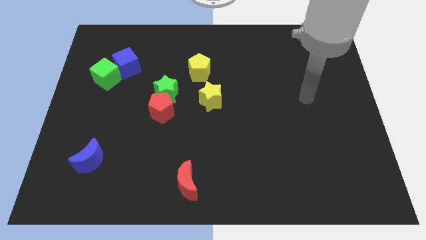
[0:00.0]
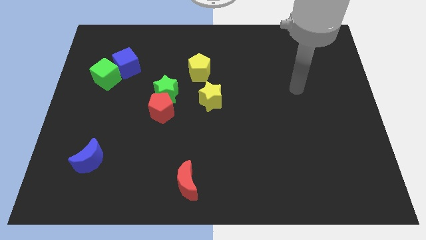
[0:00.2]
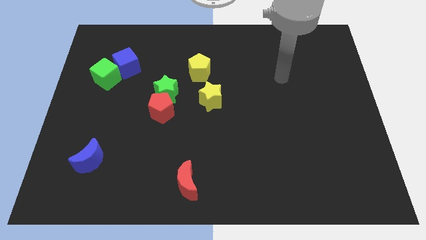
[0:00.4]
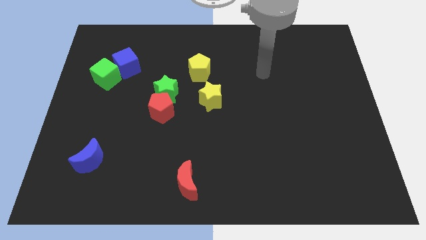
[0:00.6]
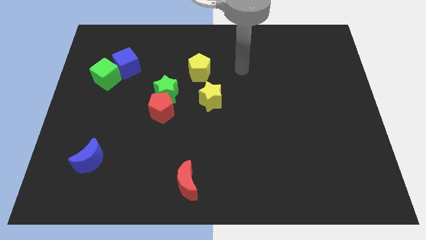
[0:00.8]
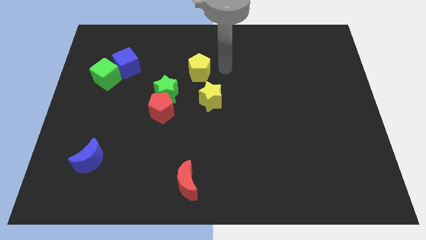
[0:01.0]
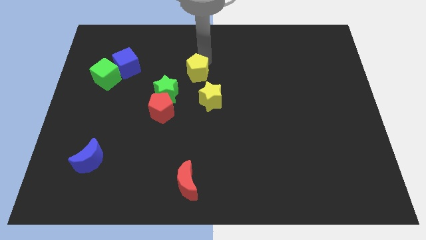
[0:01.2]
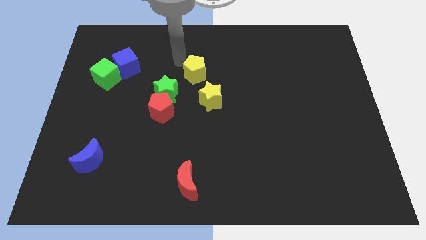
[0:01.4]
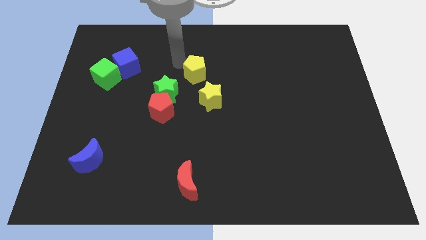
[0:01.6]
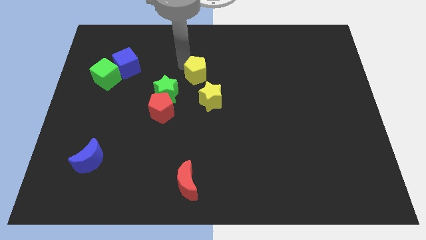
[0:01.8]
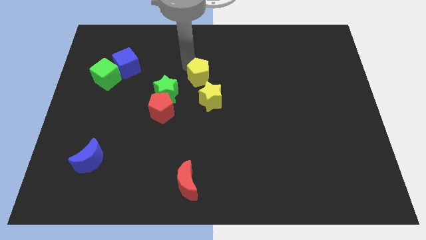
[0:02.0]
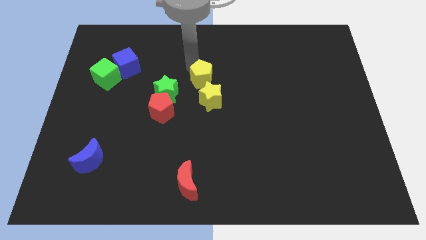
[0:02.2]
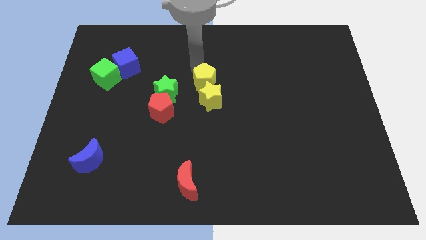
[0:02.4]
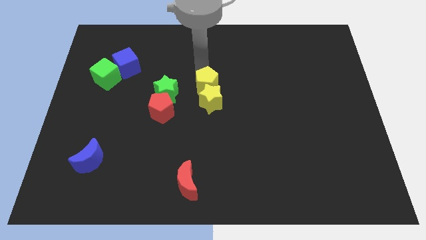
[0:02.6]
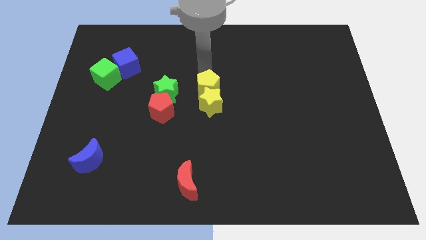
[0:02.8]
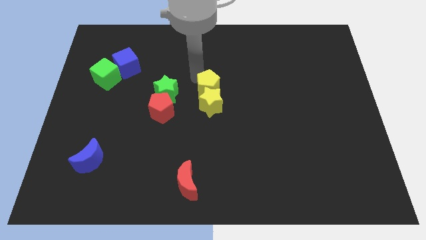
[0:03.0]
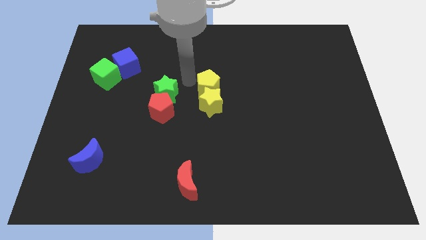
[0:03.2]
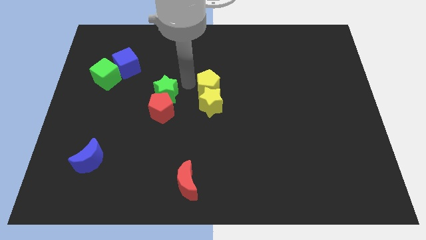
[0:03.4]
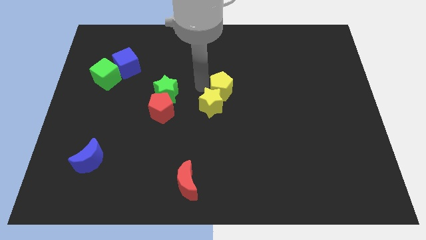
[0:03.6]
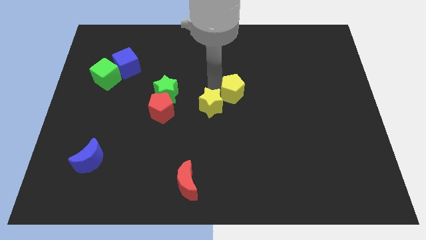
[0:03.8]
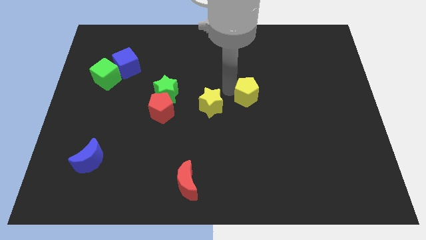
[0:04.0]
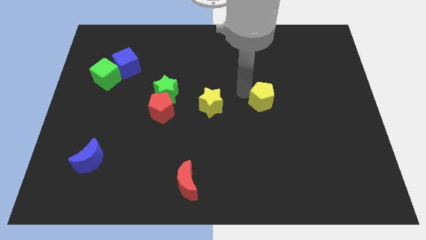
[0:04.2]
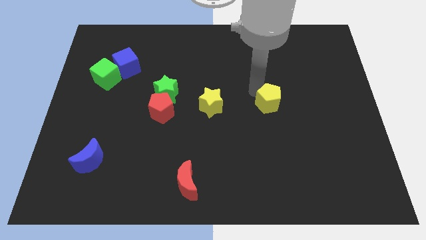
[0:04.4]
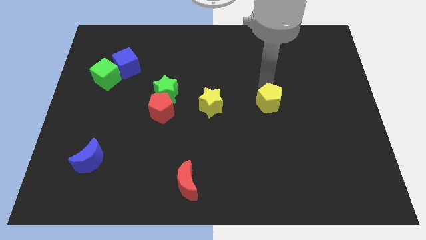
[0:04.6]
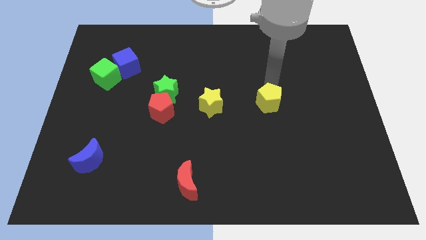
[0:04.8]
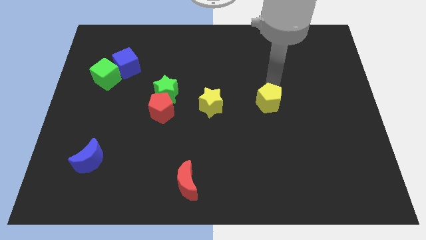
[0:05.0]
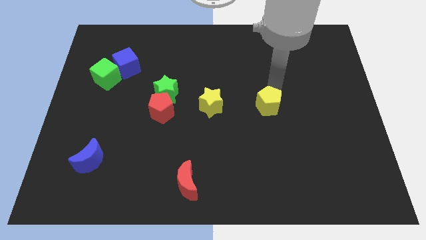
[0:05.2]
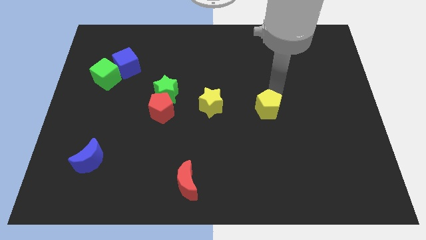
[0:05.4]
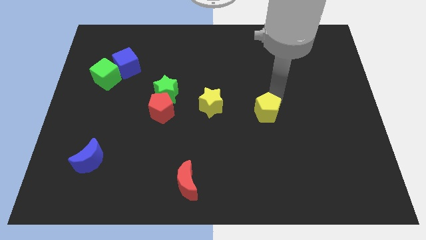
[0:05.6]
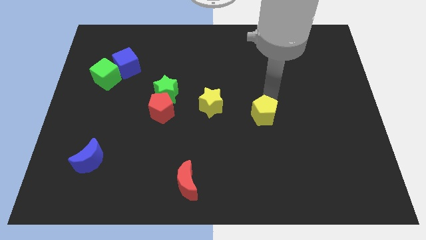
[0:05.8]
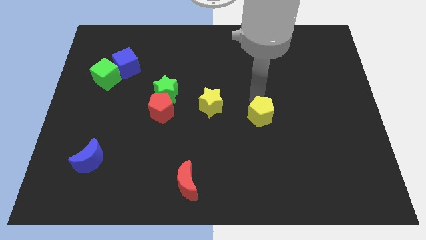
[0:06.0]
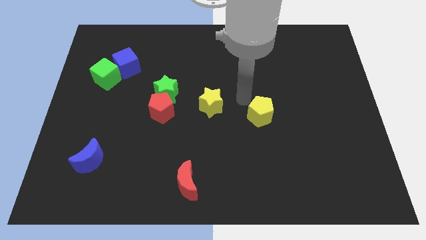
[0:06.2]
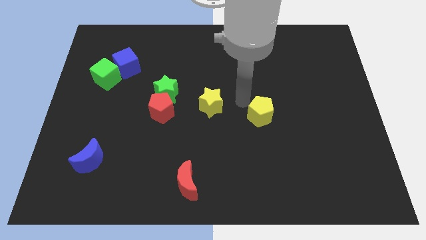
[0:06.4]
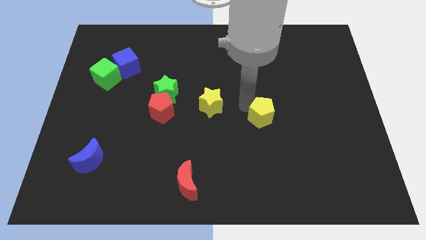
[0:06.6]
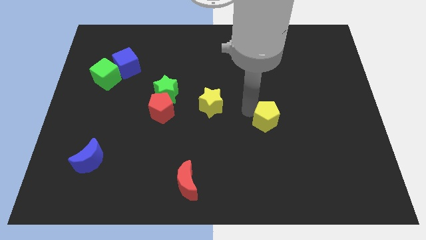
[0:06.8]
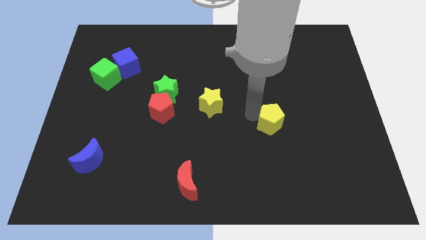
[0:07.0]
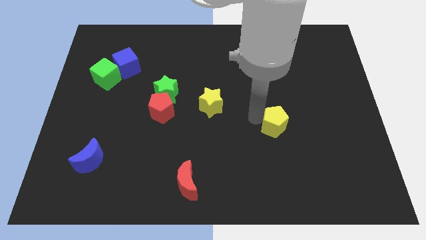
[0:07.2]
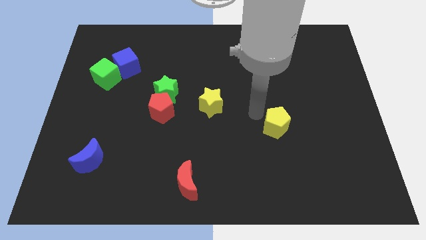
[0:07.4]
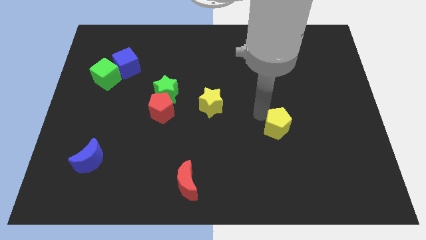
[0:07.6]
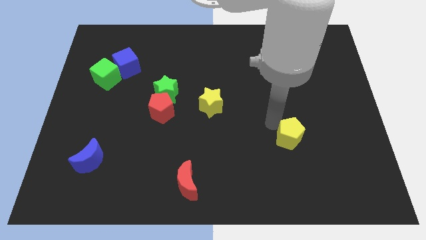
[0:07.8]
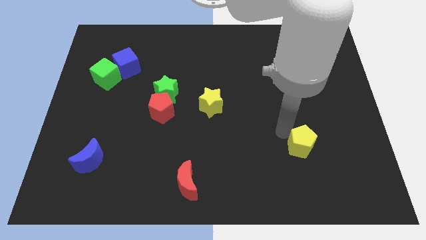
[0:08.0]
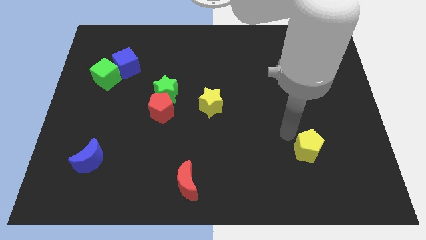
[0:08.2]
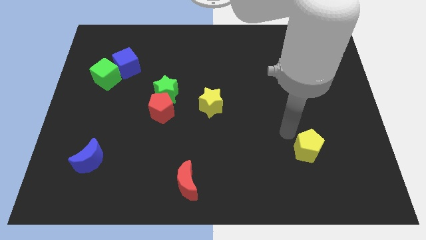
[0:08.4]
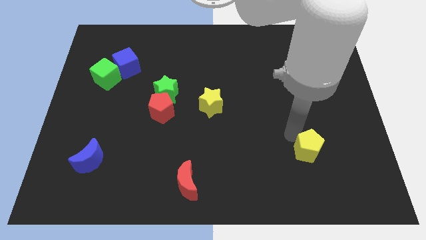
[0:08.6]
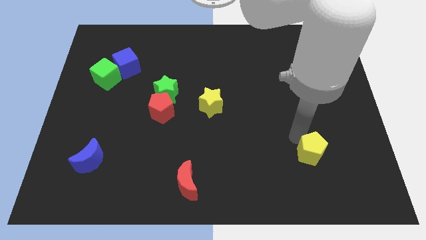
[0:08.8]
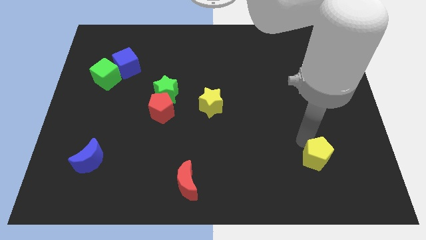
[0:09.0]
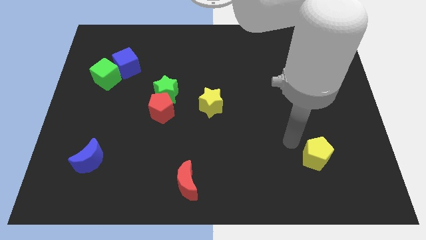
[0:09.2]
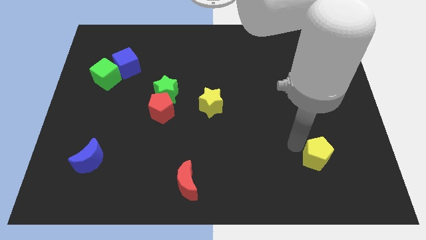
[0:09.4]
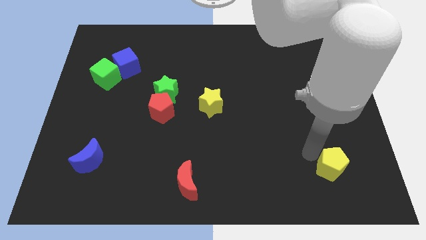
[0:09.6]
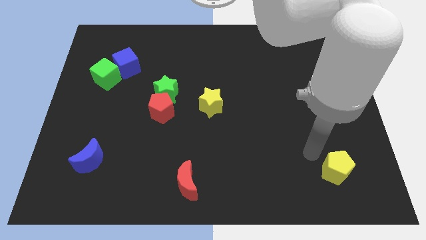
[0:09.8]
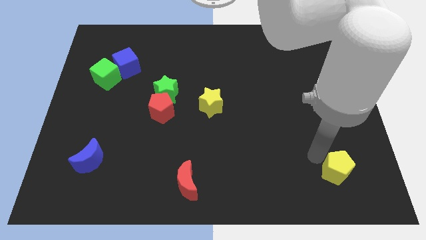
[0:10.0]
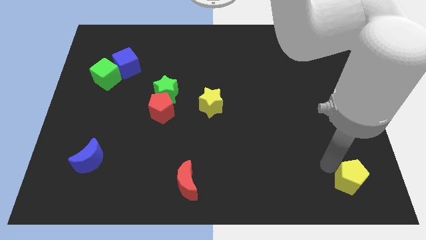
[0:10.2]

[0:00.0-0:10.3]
put the yellow pentagon to the bottom right corner

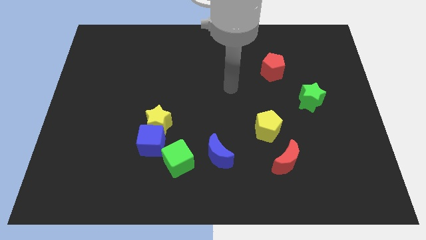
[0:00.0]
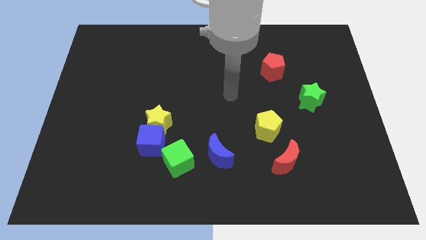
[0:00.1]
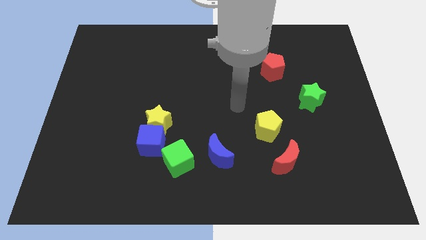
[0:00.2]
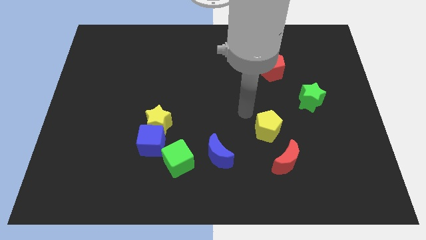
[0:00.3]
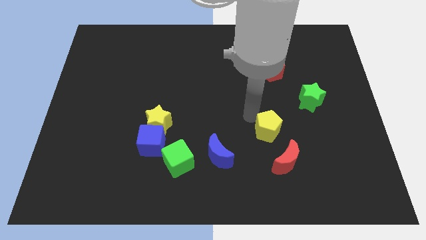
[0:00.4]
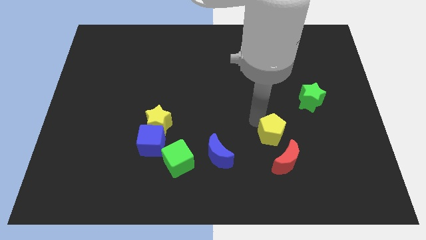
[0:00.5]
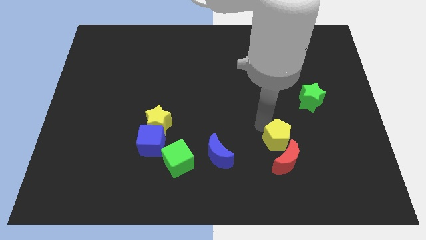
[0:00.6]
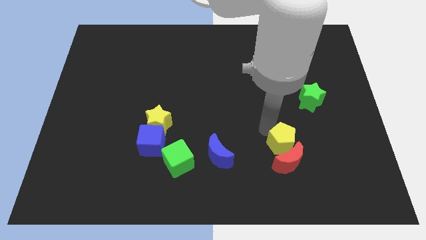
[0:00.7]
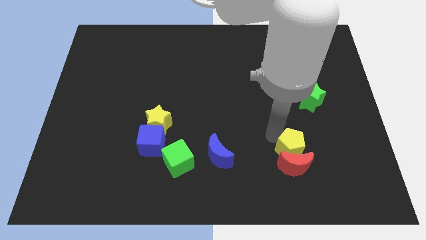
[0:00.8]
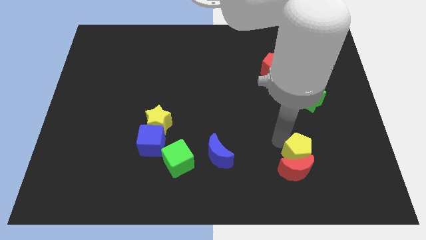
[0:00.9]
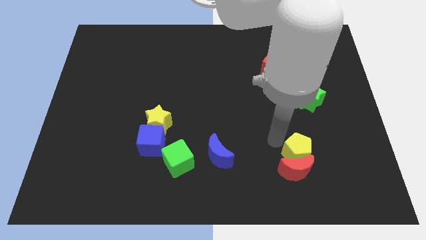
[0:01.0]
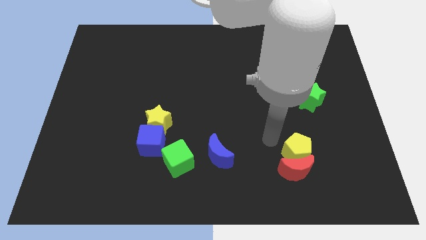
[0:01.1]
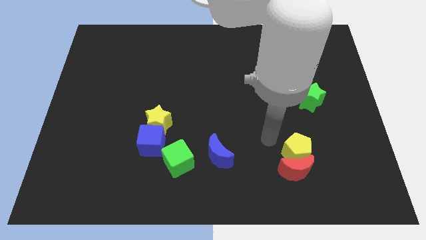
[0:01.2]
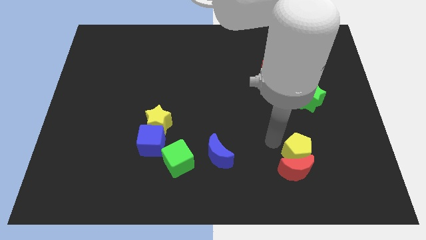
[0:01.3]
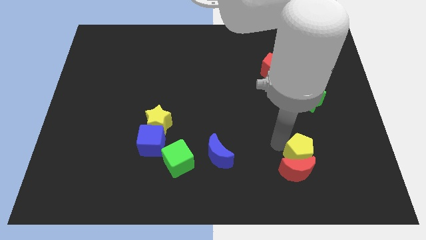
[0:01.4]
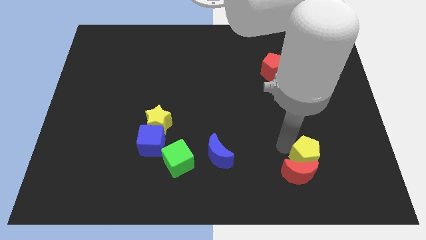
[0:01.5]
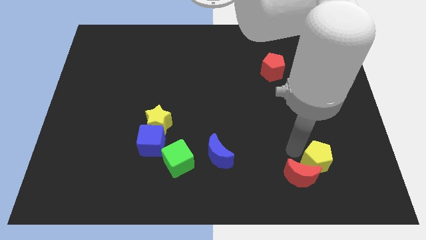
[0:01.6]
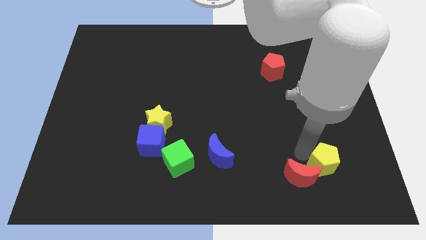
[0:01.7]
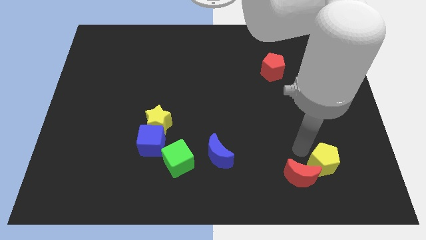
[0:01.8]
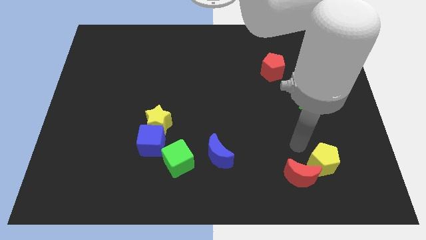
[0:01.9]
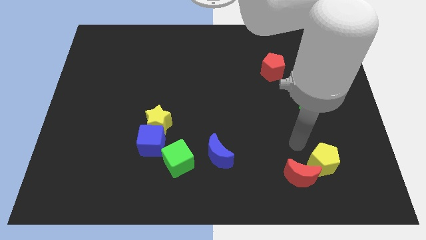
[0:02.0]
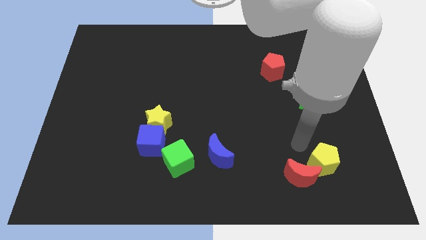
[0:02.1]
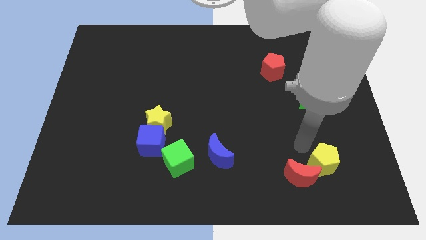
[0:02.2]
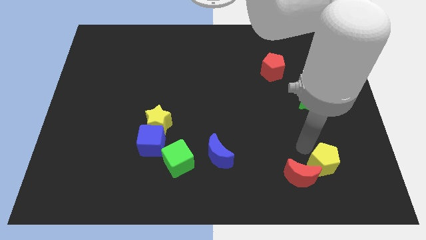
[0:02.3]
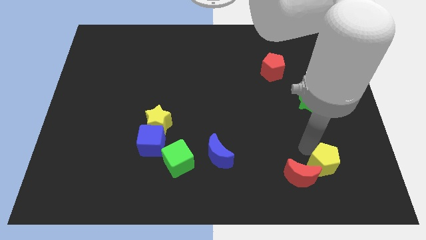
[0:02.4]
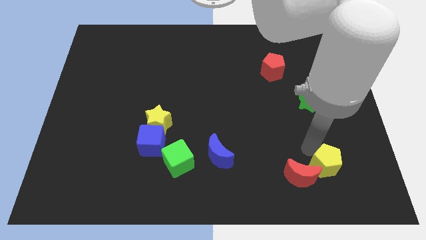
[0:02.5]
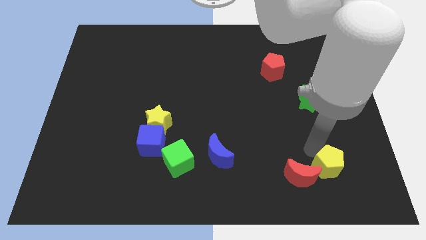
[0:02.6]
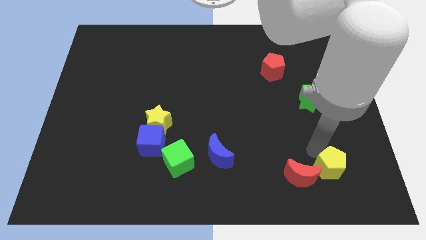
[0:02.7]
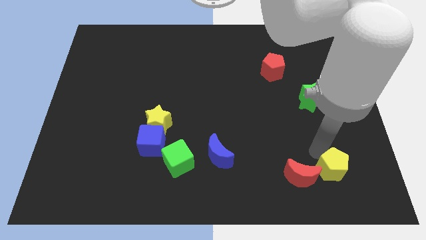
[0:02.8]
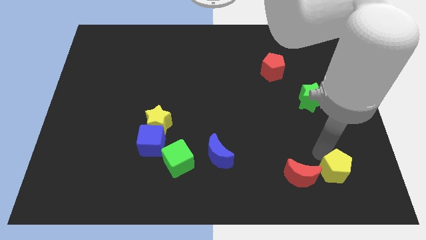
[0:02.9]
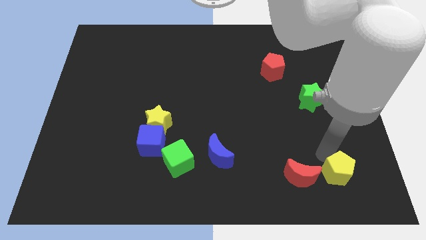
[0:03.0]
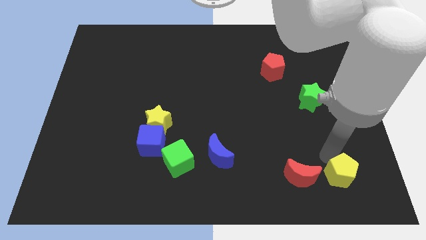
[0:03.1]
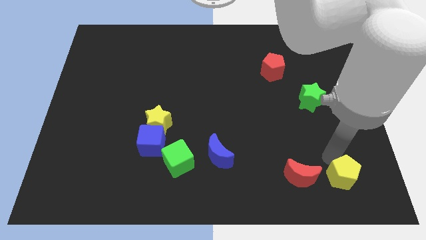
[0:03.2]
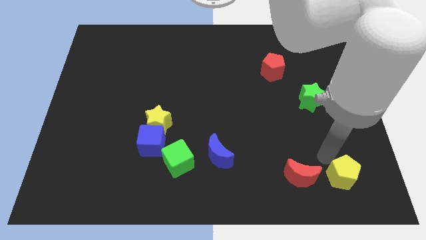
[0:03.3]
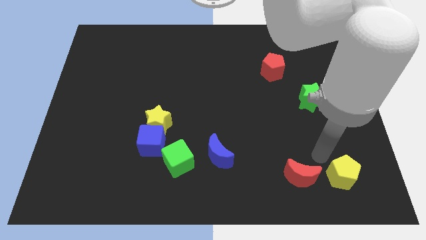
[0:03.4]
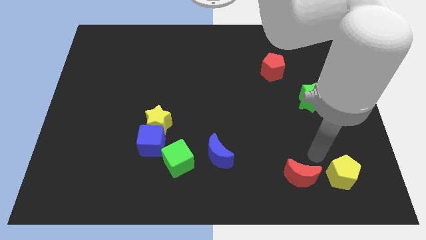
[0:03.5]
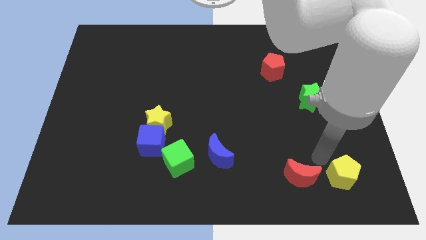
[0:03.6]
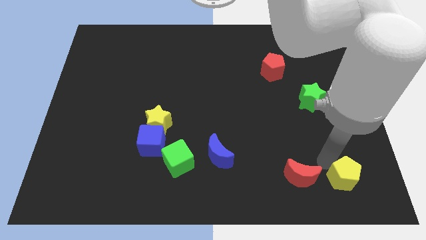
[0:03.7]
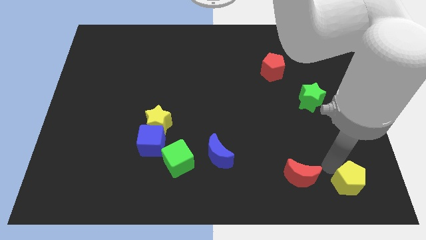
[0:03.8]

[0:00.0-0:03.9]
push the yellow pentagon to the bottom right corner
